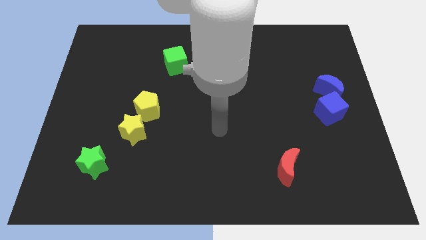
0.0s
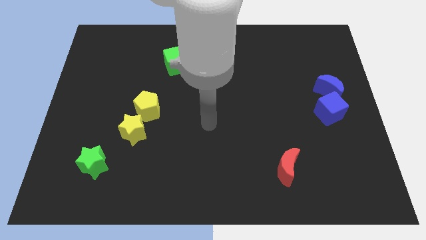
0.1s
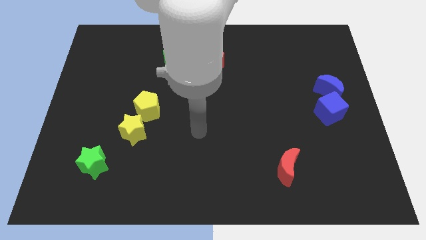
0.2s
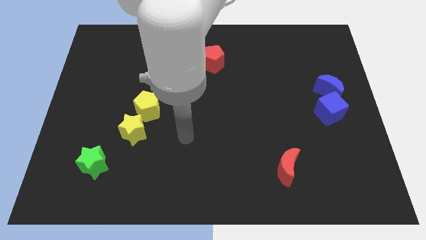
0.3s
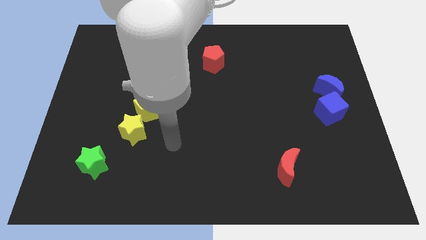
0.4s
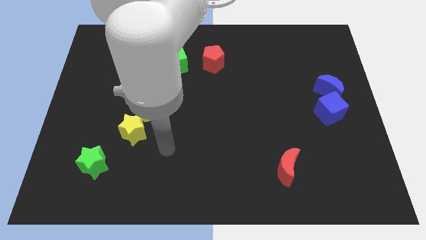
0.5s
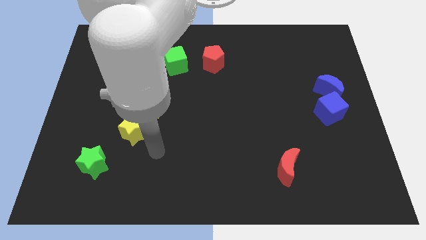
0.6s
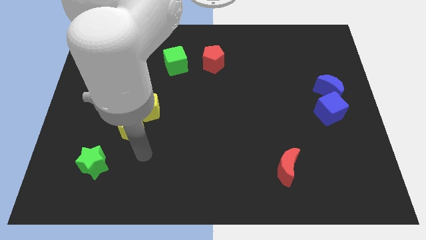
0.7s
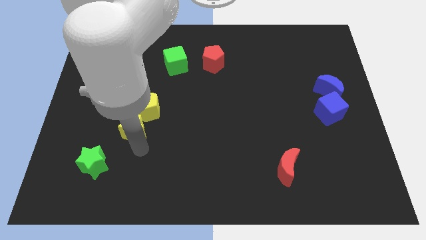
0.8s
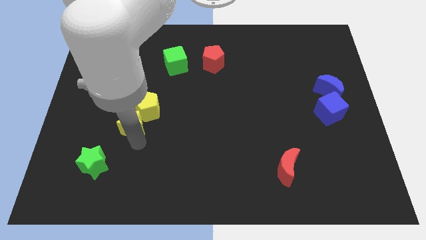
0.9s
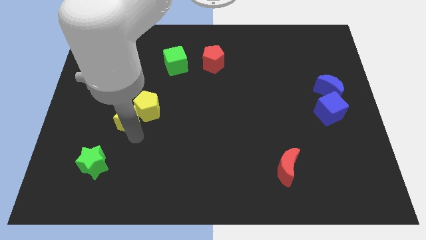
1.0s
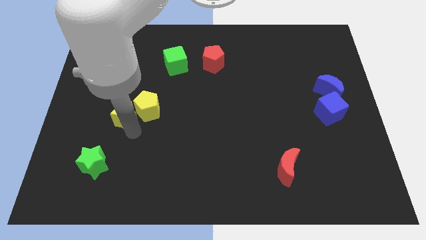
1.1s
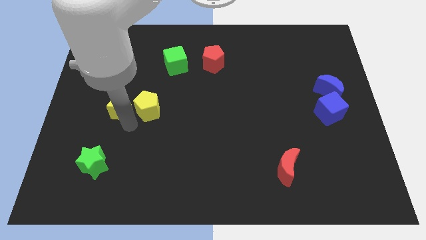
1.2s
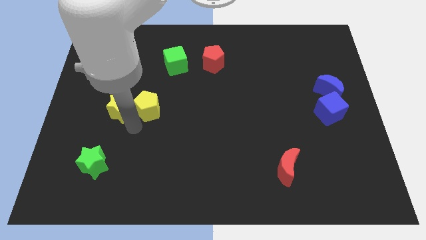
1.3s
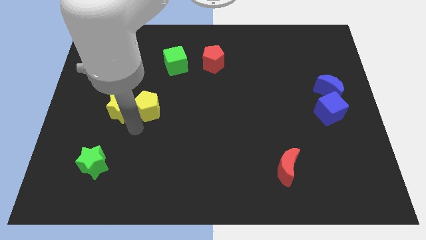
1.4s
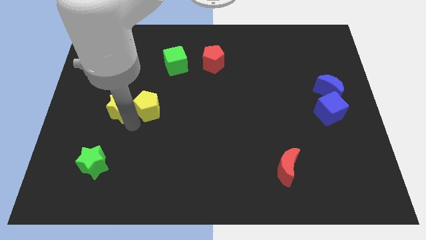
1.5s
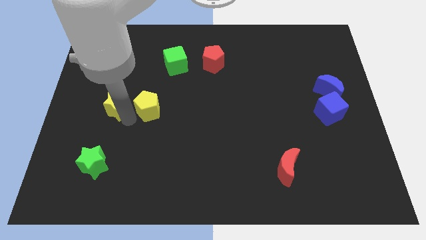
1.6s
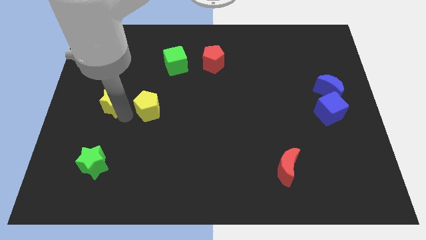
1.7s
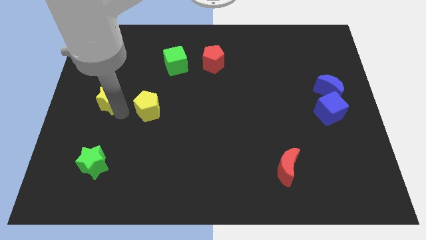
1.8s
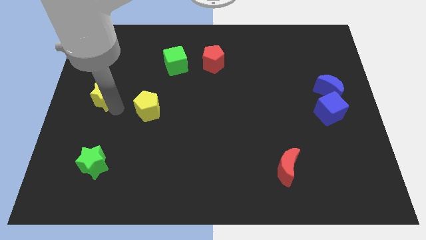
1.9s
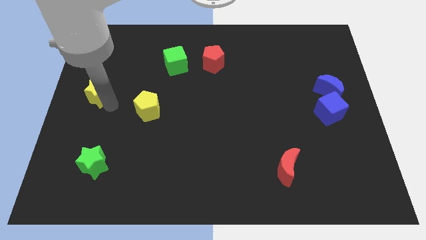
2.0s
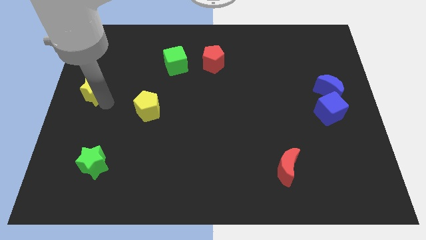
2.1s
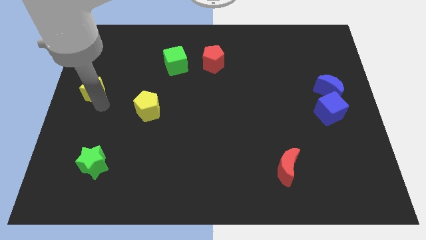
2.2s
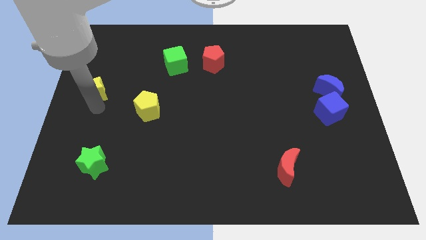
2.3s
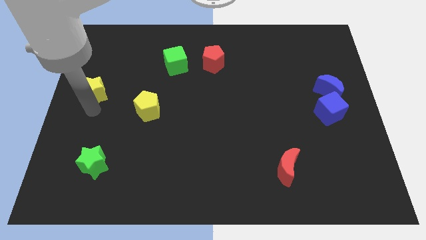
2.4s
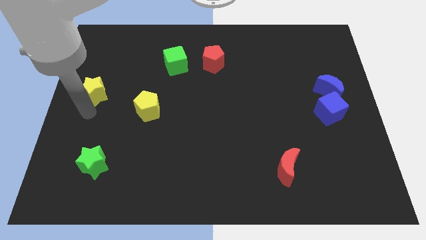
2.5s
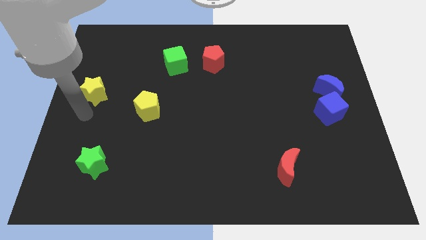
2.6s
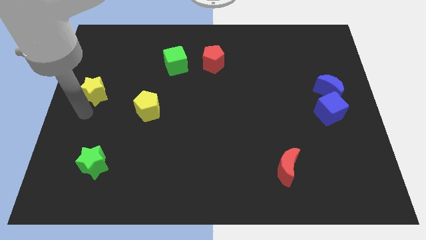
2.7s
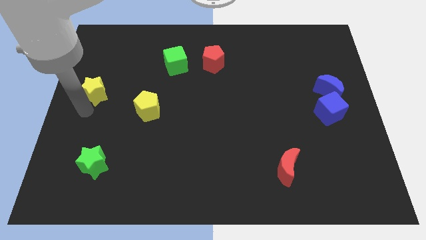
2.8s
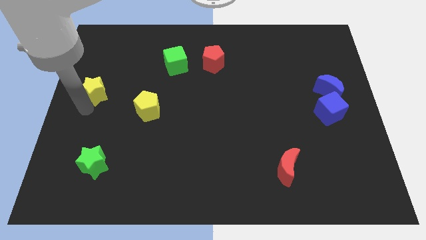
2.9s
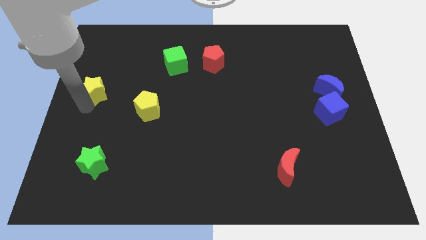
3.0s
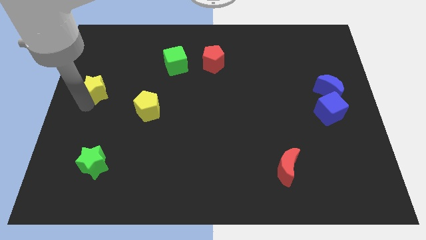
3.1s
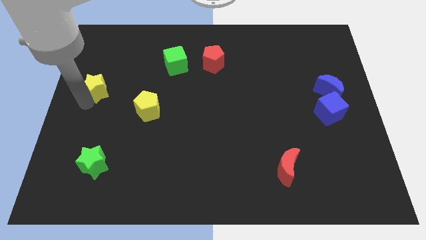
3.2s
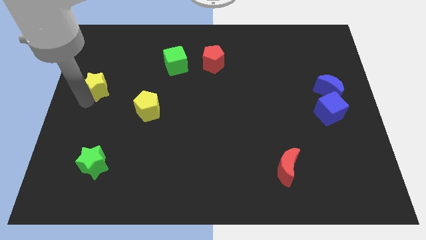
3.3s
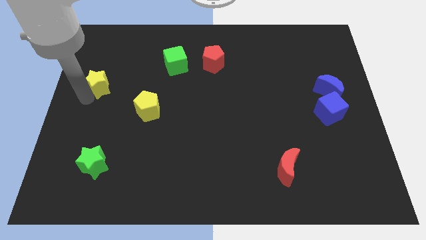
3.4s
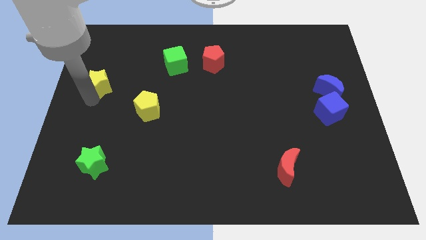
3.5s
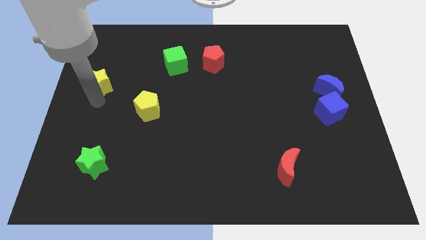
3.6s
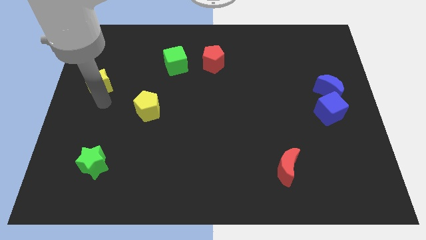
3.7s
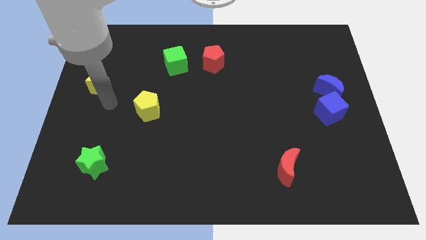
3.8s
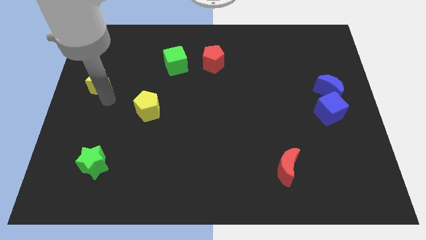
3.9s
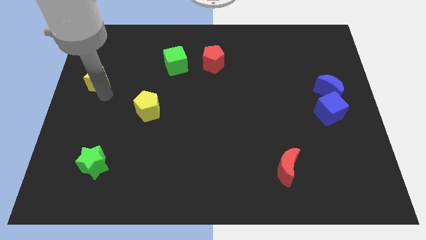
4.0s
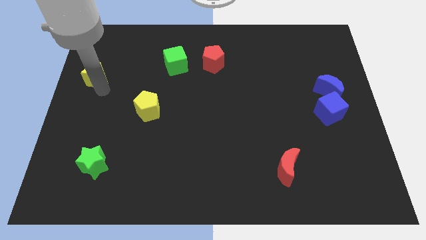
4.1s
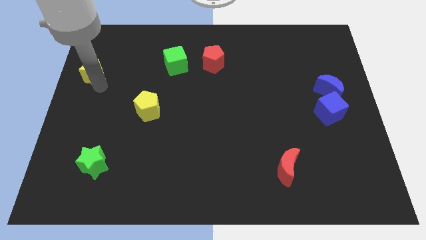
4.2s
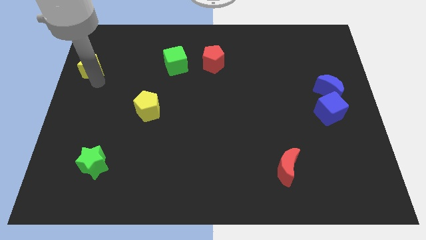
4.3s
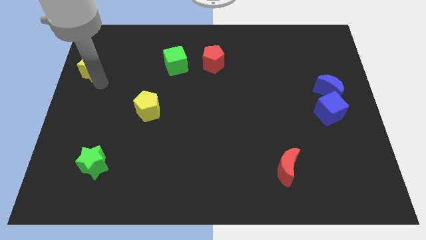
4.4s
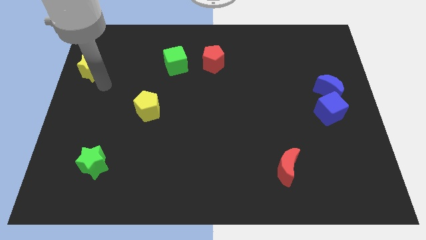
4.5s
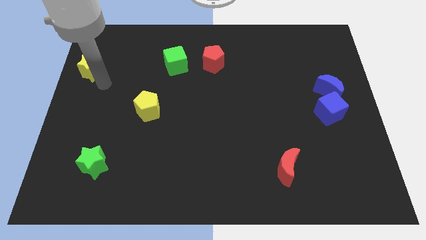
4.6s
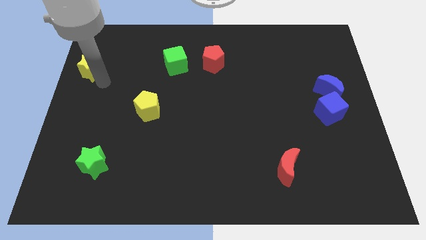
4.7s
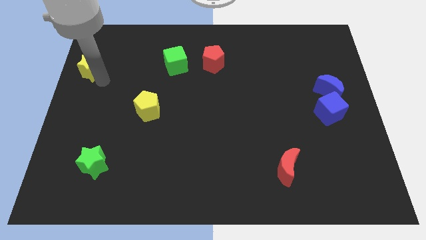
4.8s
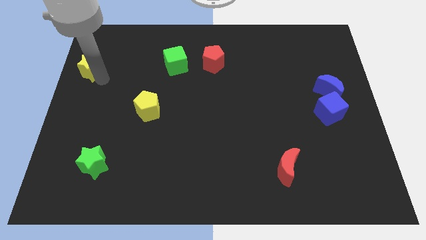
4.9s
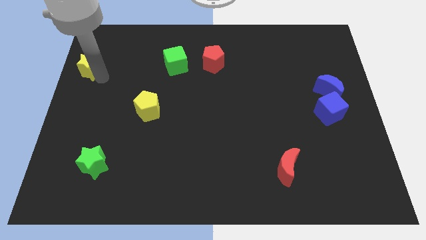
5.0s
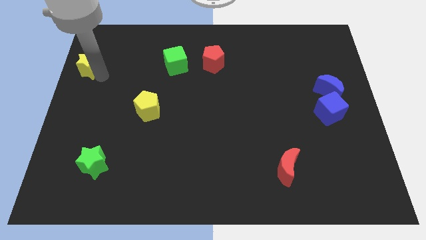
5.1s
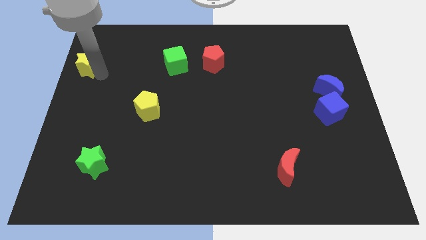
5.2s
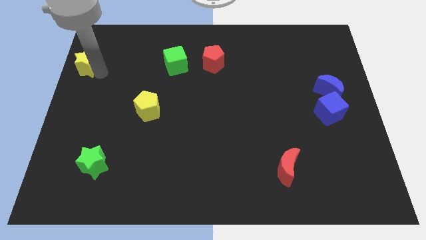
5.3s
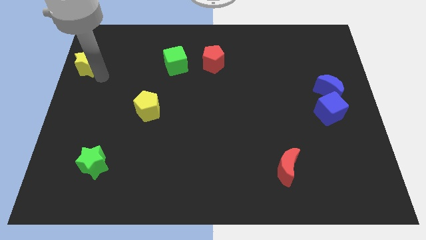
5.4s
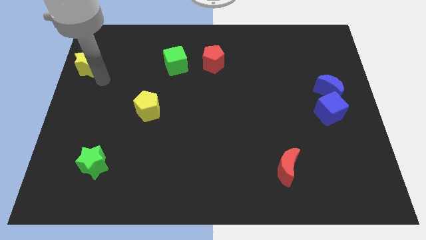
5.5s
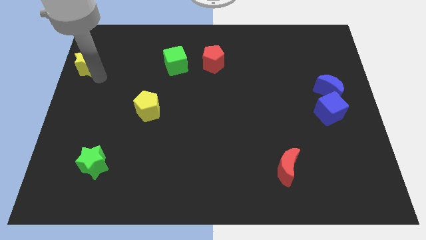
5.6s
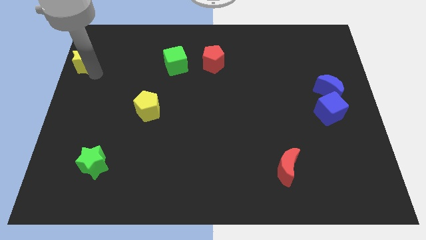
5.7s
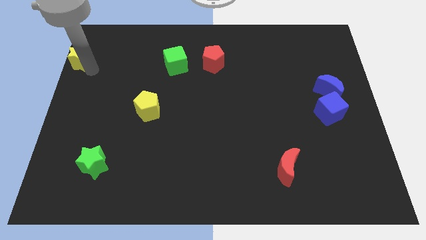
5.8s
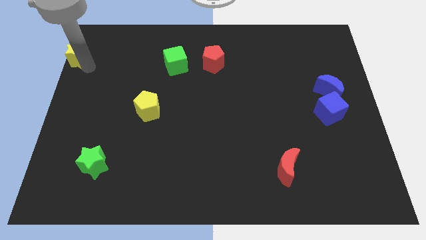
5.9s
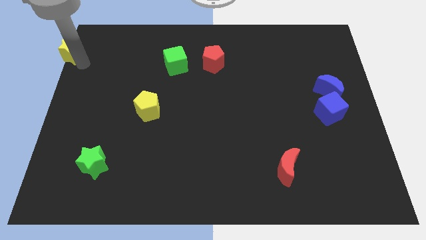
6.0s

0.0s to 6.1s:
put the yellow star to the top left corner

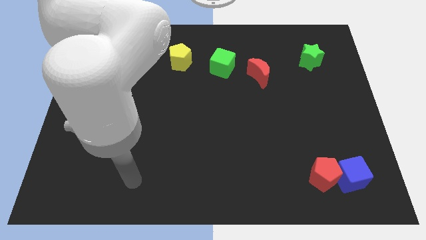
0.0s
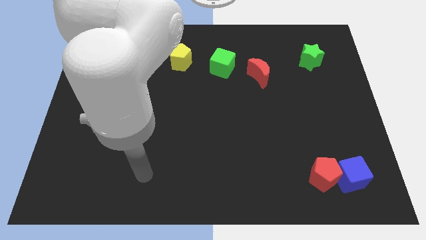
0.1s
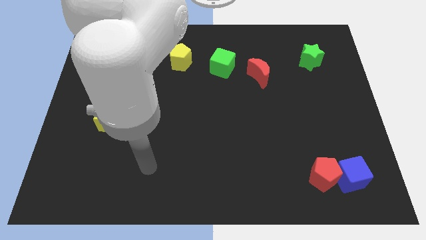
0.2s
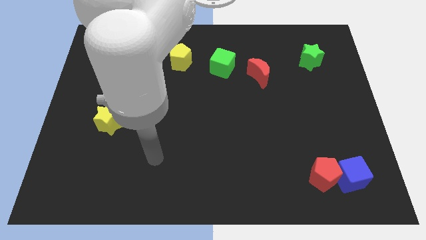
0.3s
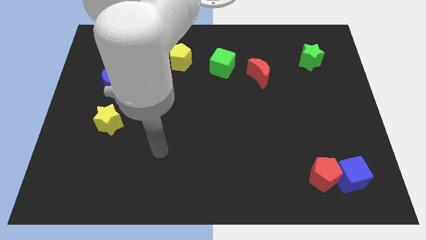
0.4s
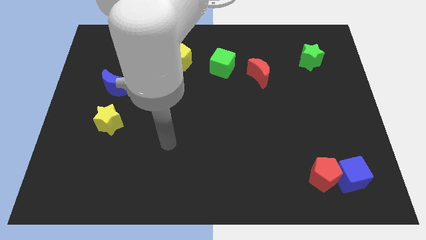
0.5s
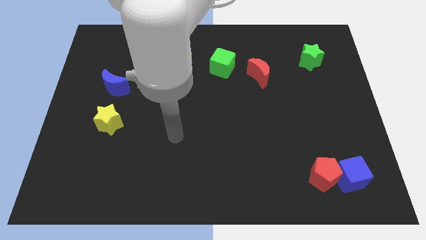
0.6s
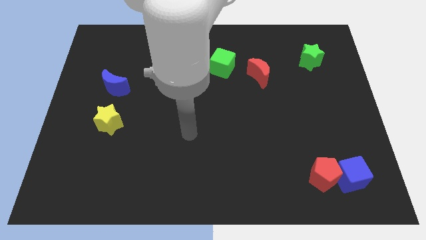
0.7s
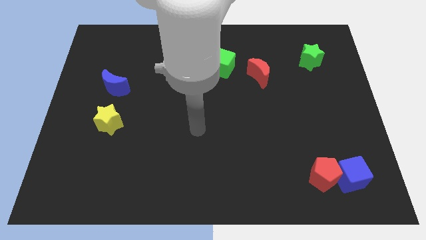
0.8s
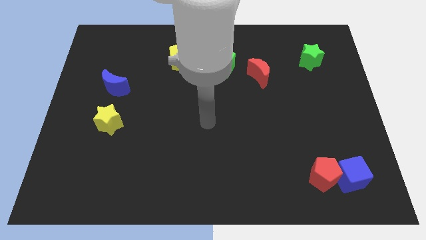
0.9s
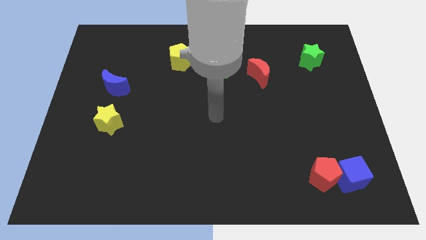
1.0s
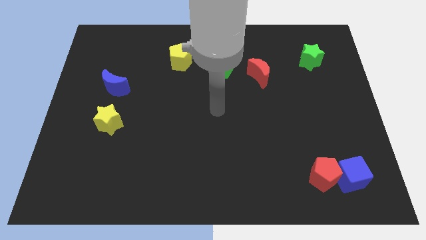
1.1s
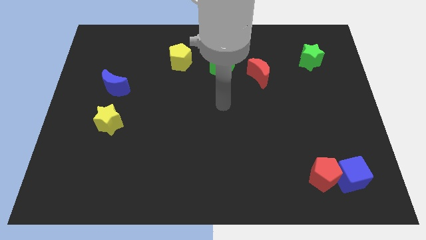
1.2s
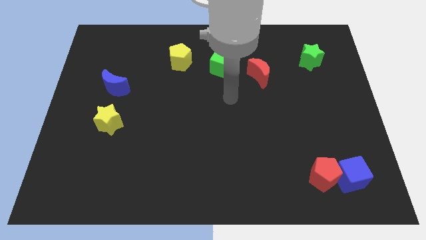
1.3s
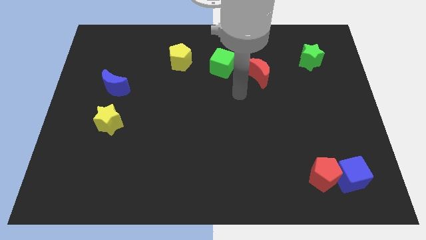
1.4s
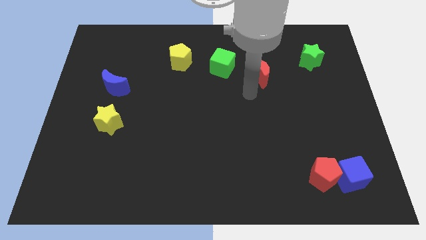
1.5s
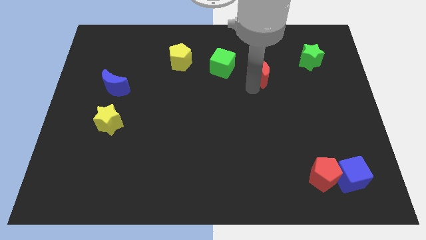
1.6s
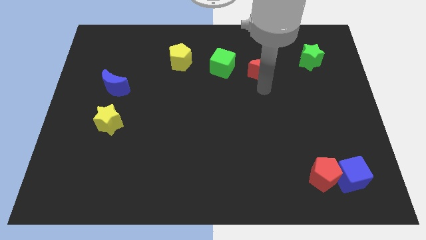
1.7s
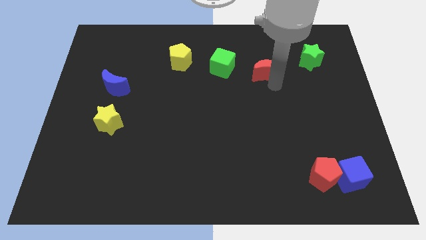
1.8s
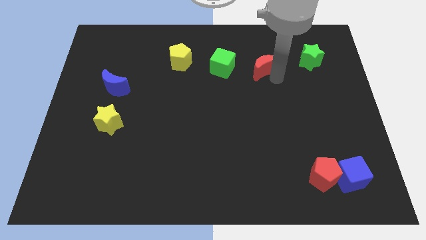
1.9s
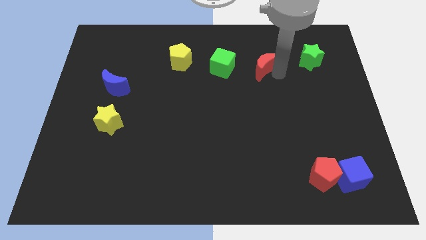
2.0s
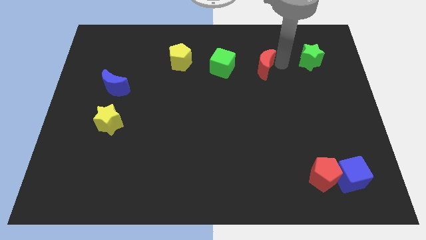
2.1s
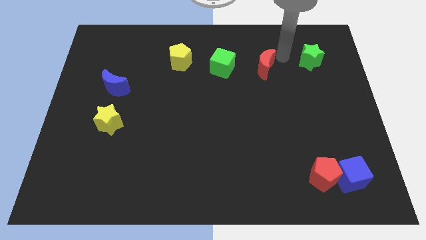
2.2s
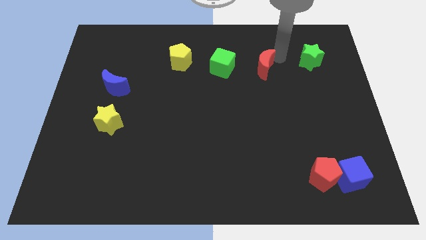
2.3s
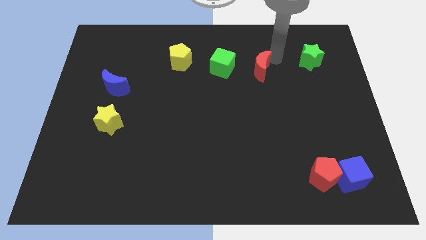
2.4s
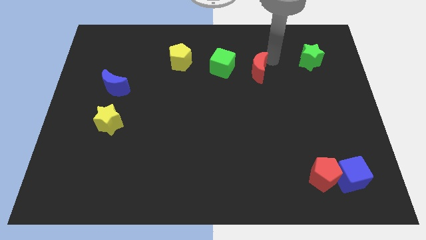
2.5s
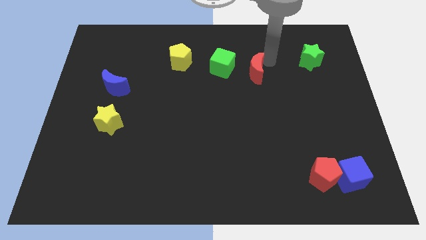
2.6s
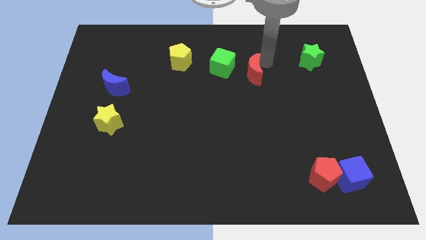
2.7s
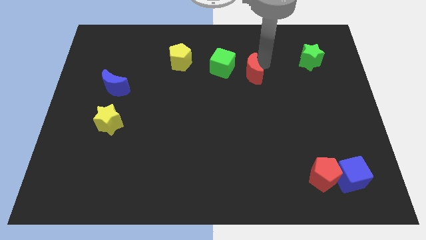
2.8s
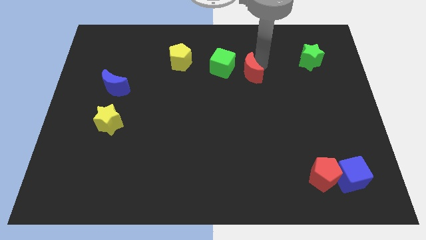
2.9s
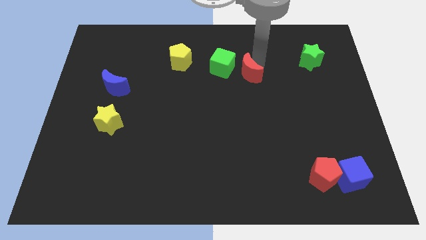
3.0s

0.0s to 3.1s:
put the red moon to the middle of the board
